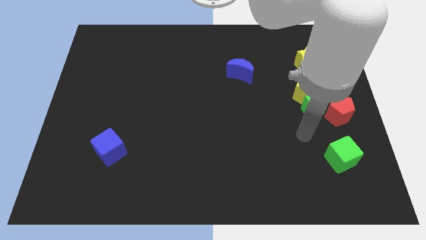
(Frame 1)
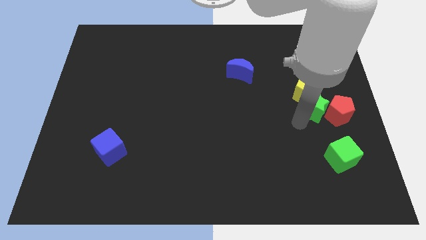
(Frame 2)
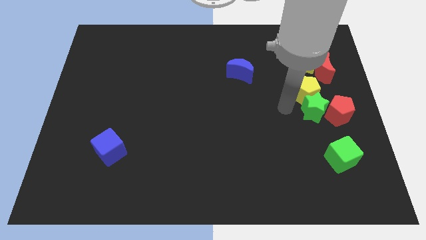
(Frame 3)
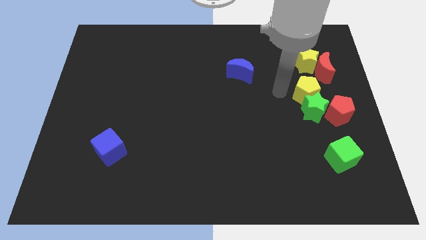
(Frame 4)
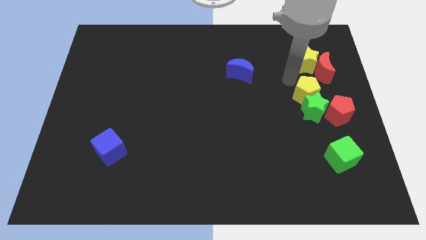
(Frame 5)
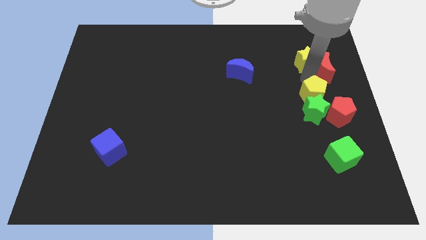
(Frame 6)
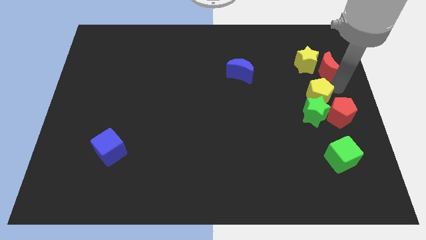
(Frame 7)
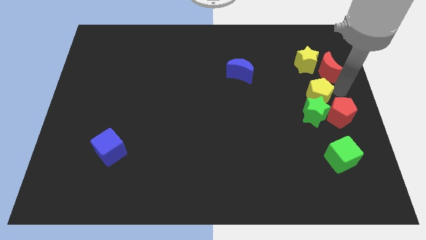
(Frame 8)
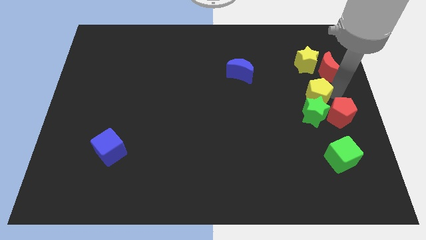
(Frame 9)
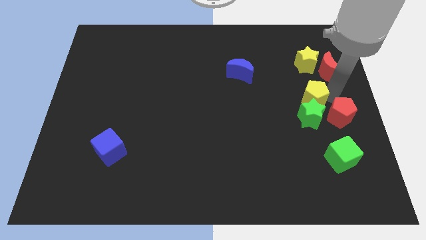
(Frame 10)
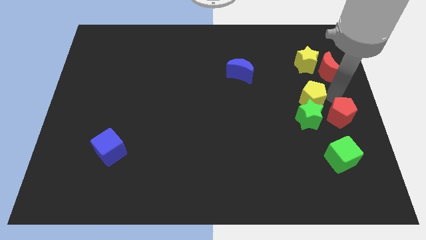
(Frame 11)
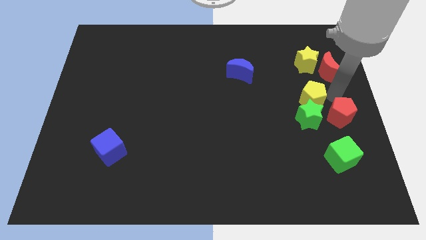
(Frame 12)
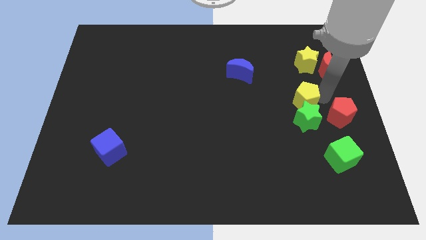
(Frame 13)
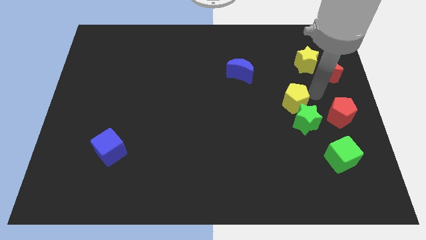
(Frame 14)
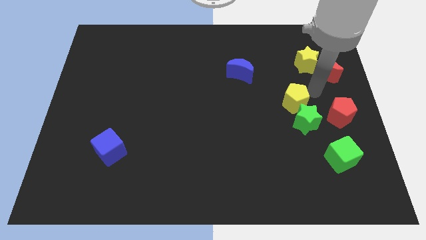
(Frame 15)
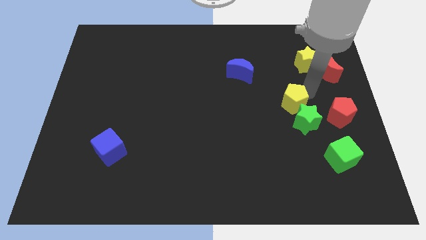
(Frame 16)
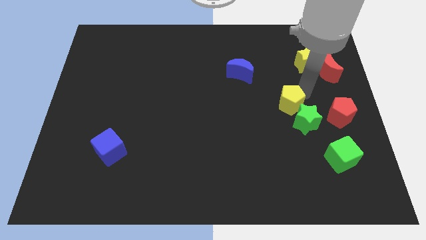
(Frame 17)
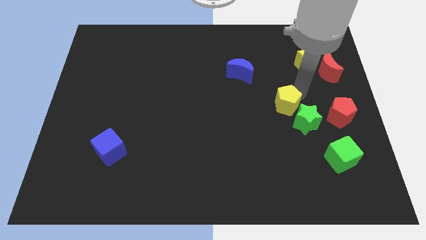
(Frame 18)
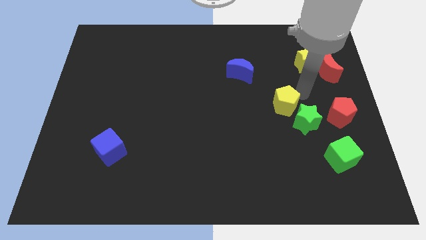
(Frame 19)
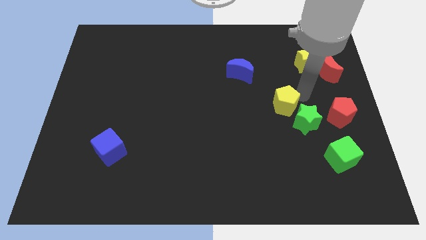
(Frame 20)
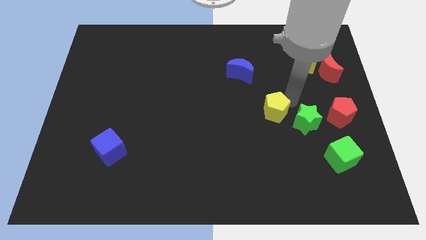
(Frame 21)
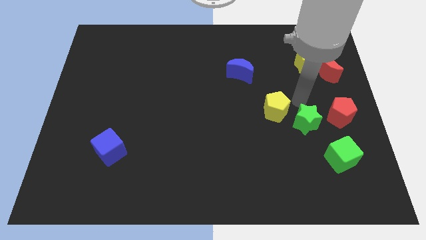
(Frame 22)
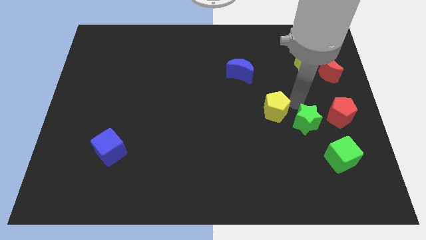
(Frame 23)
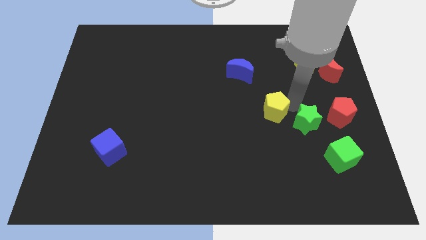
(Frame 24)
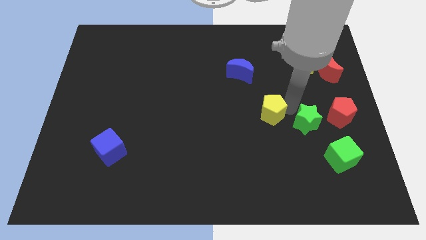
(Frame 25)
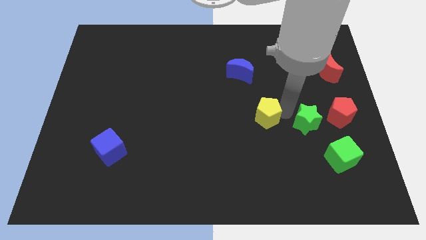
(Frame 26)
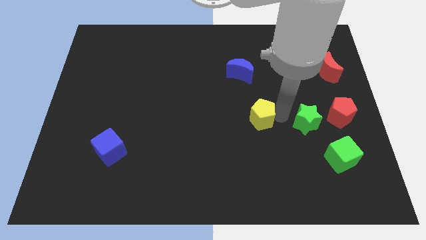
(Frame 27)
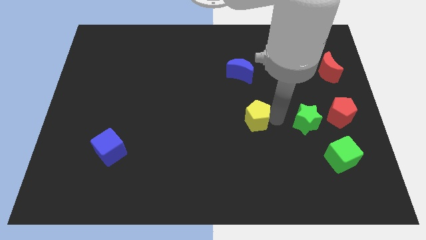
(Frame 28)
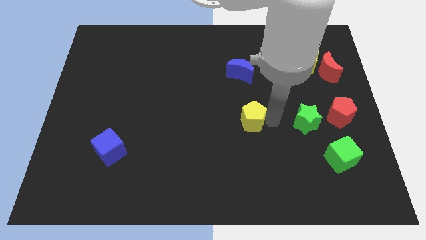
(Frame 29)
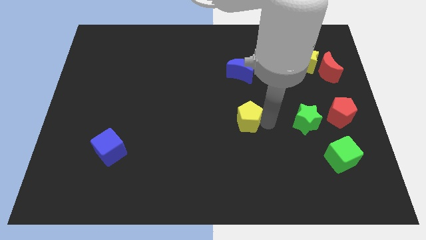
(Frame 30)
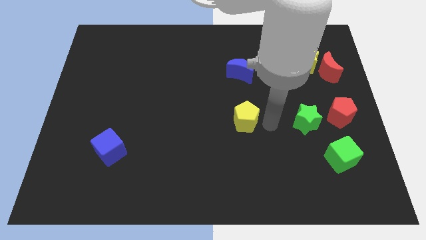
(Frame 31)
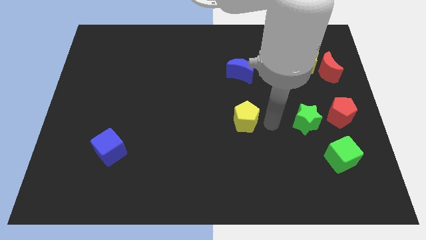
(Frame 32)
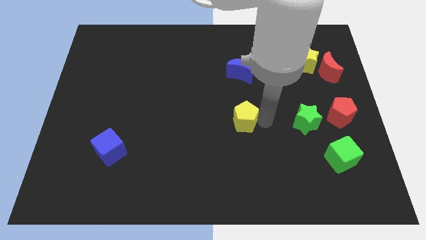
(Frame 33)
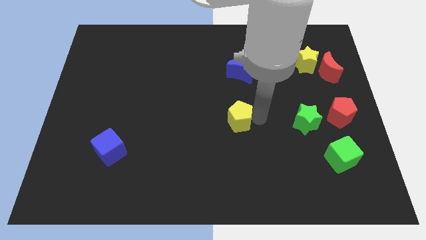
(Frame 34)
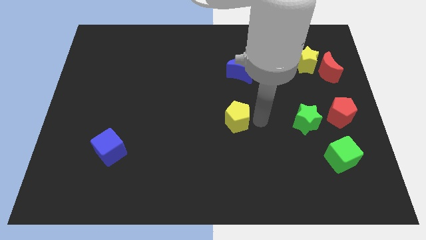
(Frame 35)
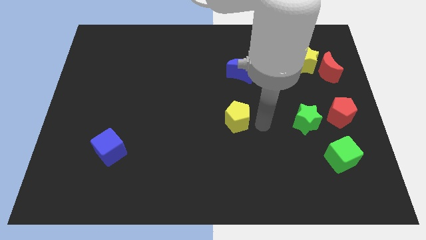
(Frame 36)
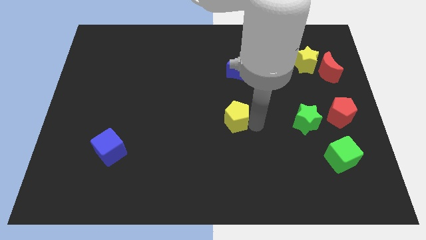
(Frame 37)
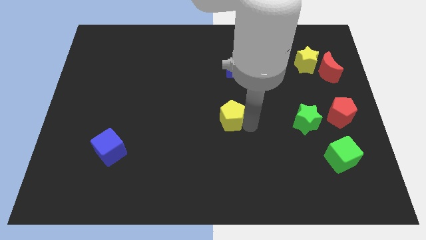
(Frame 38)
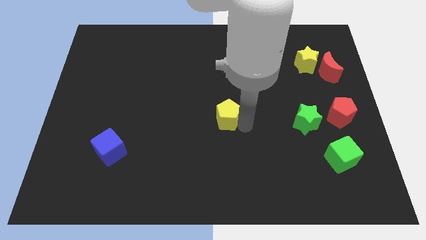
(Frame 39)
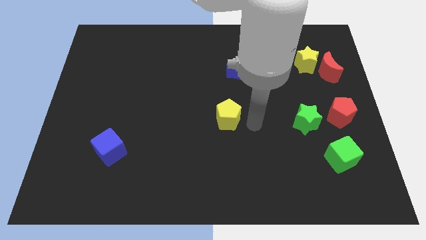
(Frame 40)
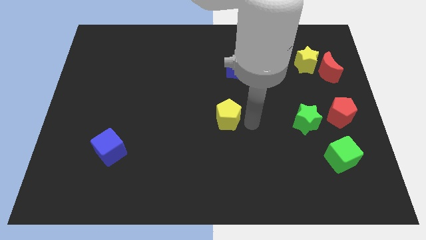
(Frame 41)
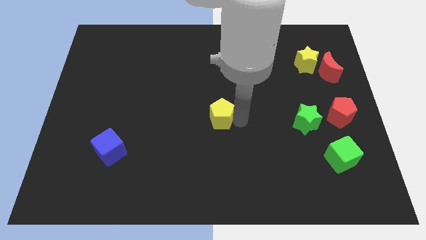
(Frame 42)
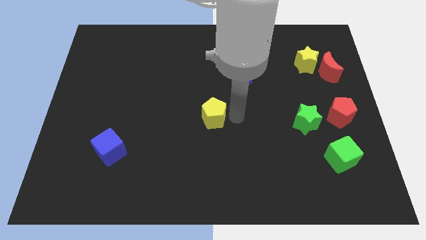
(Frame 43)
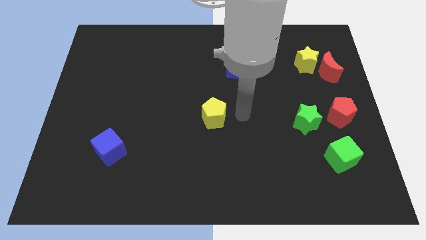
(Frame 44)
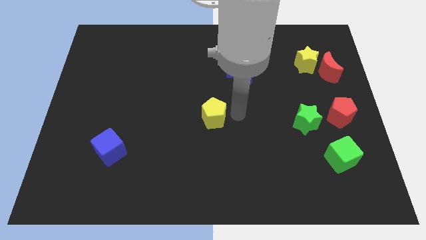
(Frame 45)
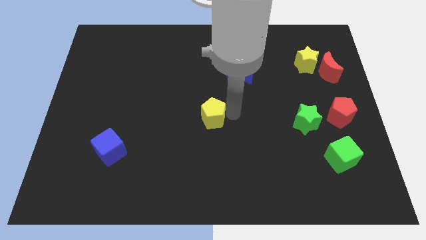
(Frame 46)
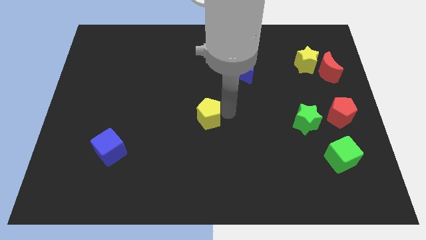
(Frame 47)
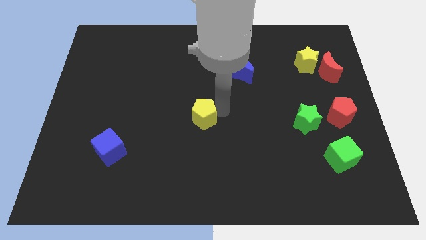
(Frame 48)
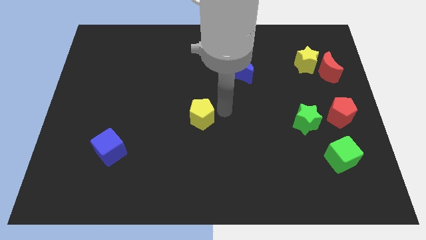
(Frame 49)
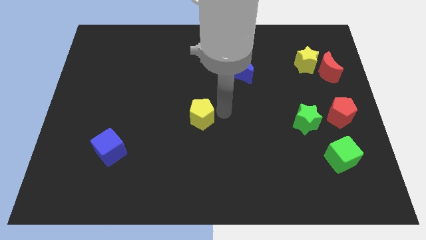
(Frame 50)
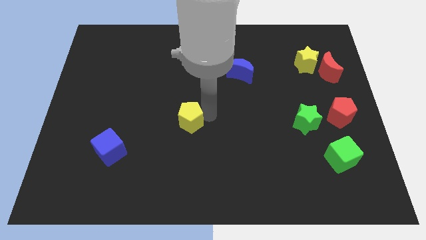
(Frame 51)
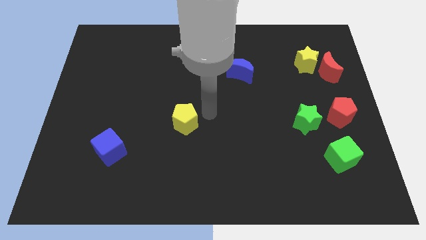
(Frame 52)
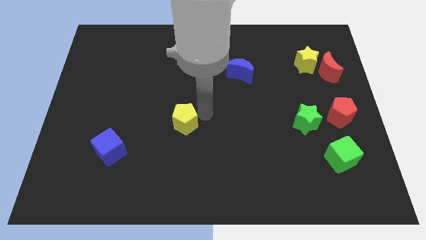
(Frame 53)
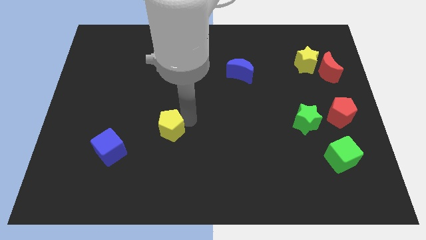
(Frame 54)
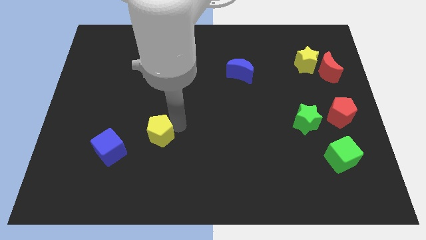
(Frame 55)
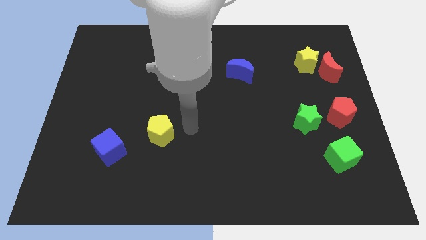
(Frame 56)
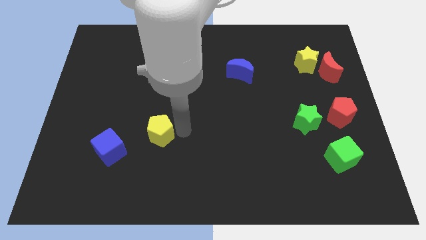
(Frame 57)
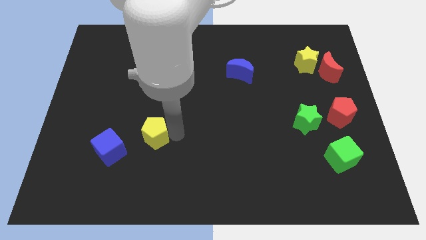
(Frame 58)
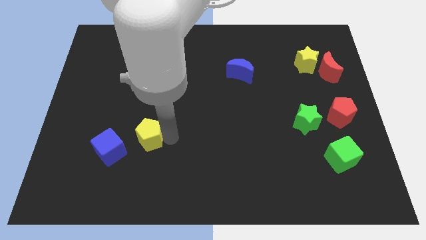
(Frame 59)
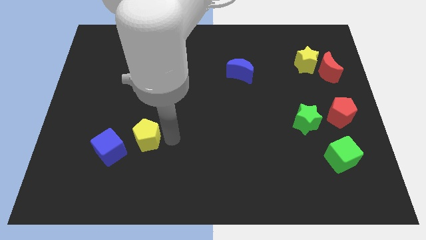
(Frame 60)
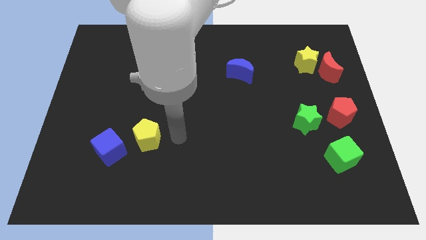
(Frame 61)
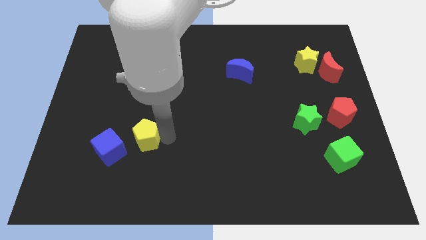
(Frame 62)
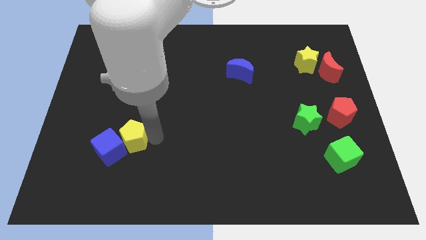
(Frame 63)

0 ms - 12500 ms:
move the yellow pentagon close to the blue cube

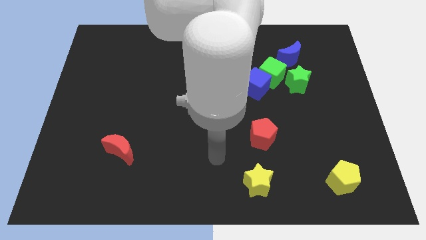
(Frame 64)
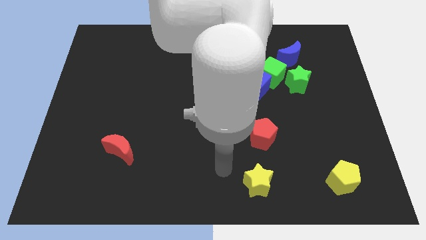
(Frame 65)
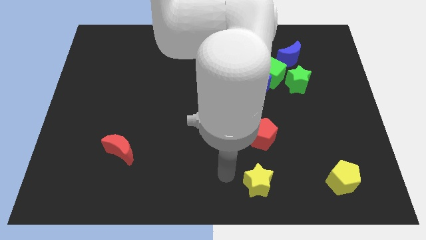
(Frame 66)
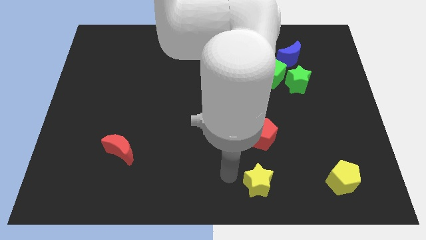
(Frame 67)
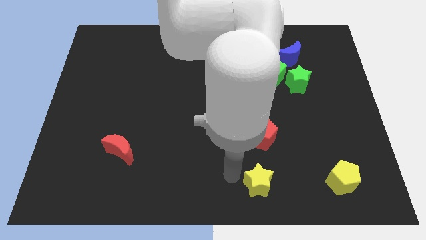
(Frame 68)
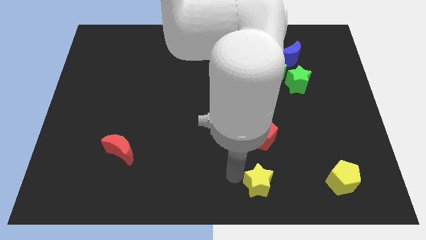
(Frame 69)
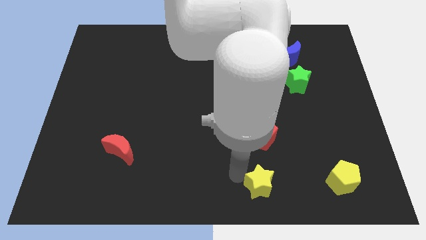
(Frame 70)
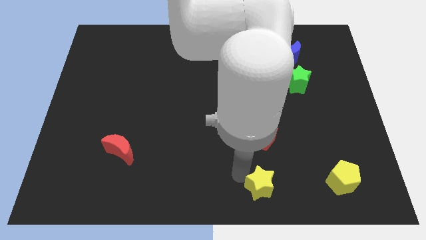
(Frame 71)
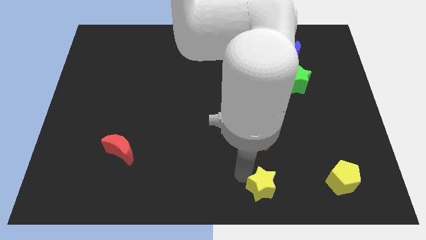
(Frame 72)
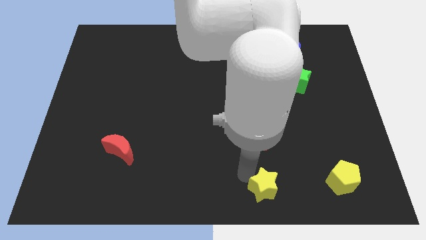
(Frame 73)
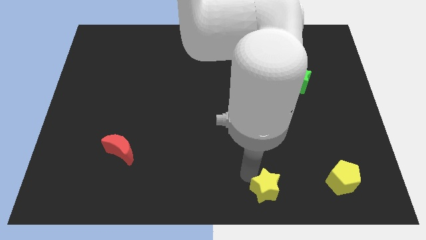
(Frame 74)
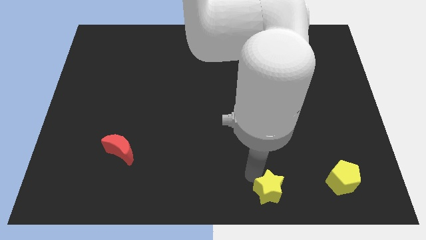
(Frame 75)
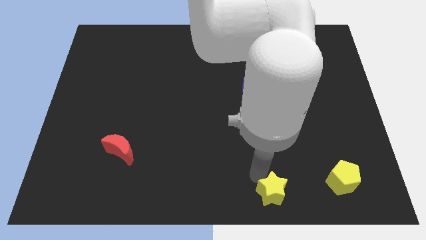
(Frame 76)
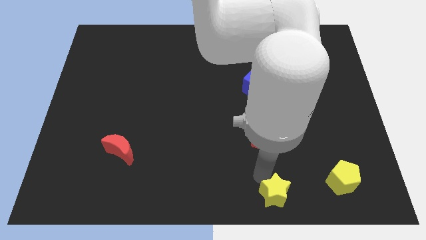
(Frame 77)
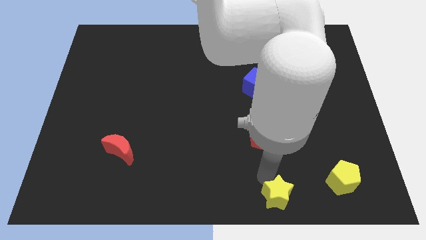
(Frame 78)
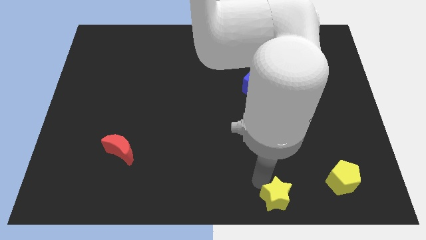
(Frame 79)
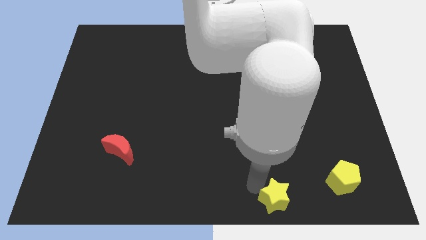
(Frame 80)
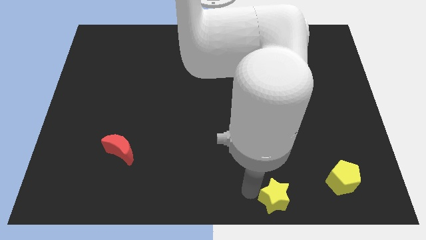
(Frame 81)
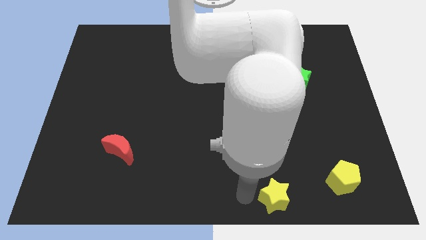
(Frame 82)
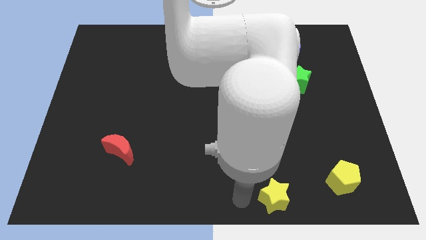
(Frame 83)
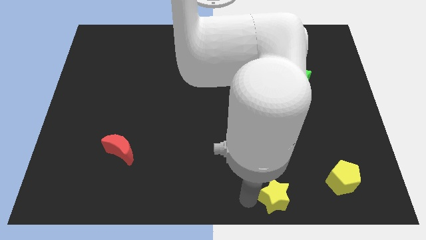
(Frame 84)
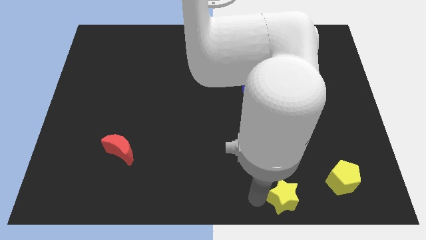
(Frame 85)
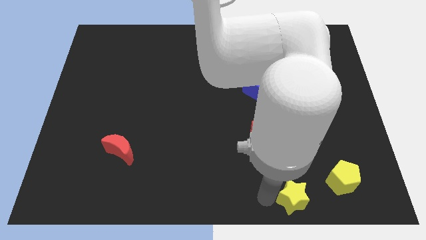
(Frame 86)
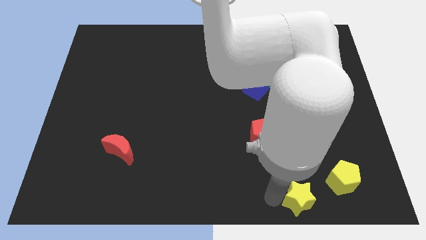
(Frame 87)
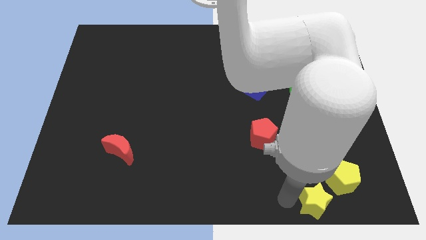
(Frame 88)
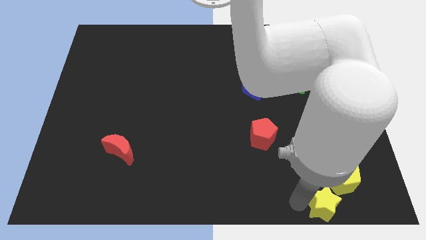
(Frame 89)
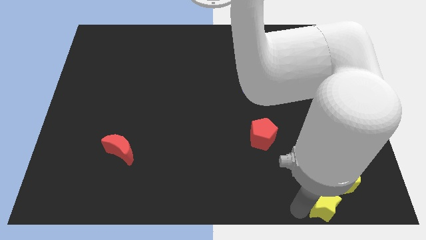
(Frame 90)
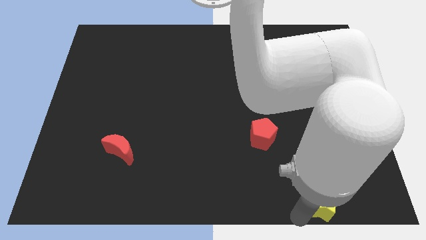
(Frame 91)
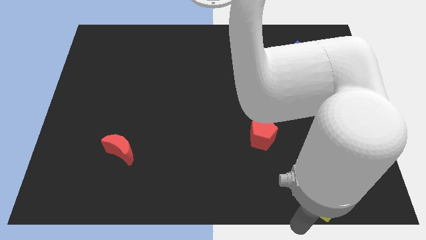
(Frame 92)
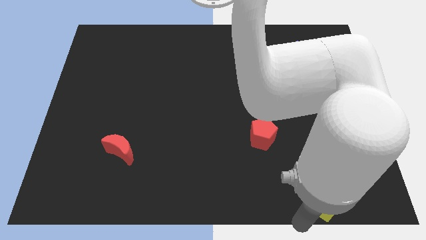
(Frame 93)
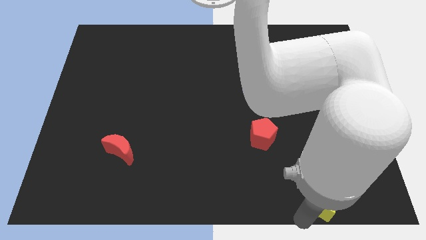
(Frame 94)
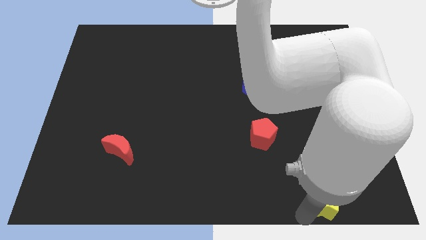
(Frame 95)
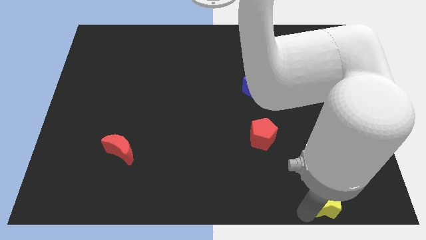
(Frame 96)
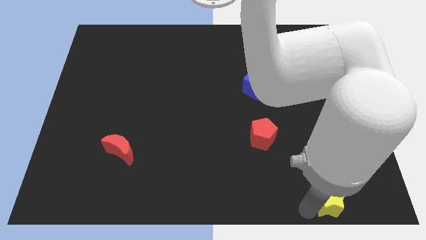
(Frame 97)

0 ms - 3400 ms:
move the yellow star to the yellow pentagon
